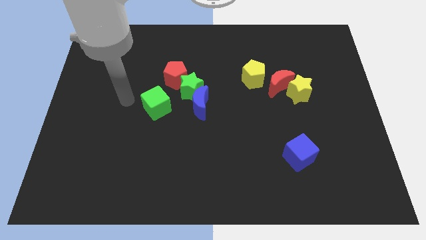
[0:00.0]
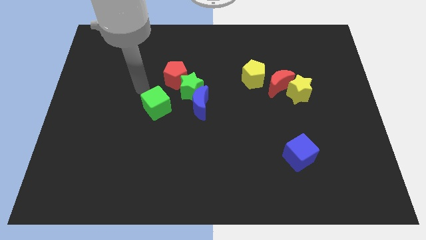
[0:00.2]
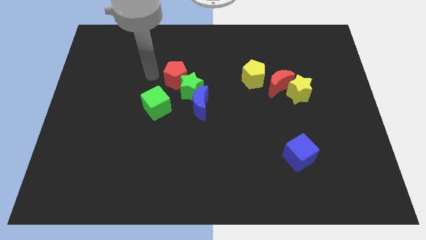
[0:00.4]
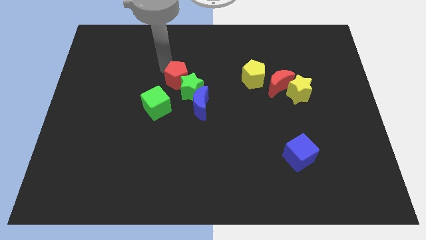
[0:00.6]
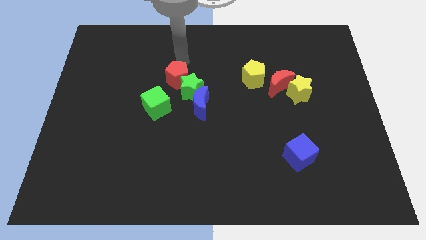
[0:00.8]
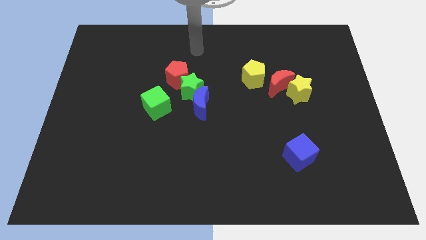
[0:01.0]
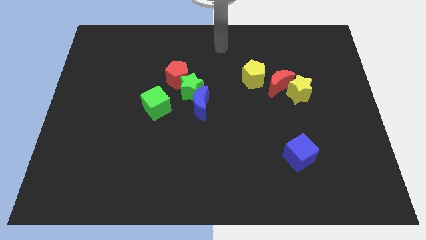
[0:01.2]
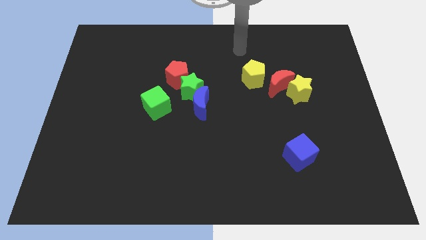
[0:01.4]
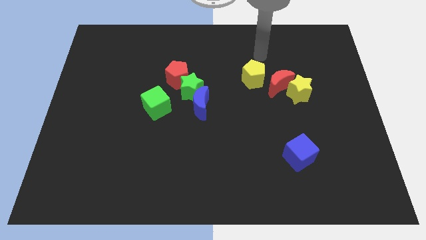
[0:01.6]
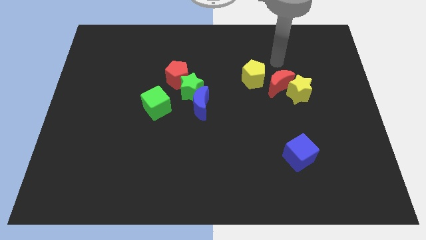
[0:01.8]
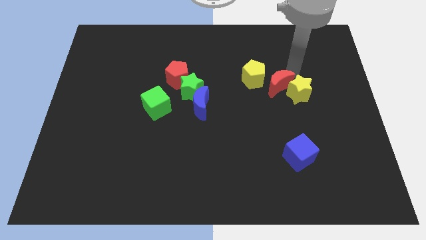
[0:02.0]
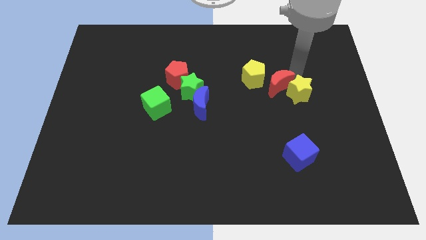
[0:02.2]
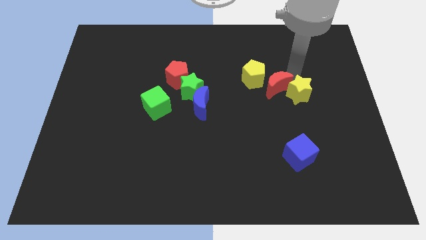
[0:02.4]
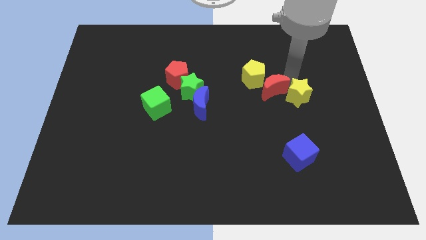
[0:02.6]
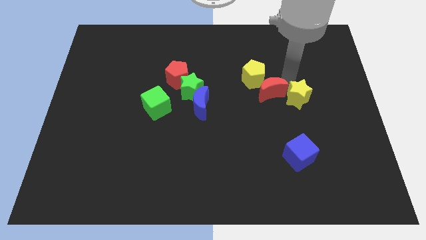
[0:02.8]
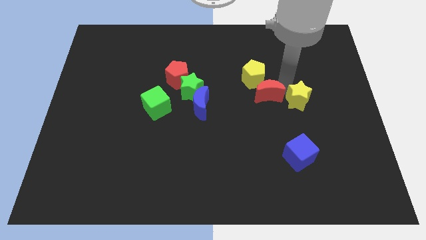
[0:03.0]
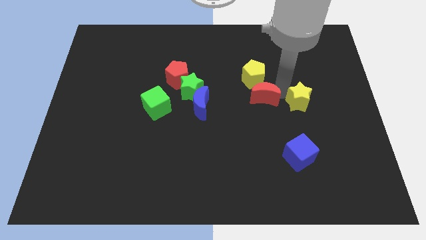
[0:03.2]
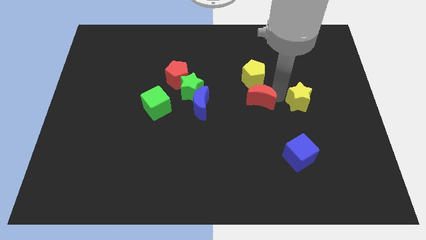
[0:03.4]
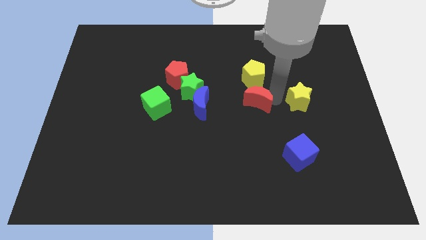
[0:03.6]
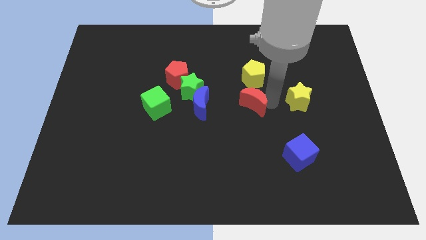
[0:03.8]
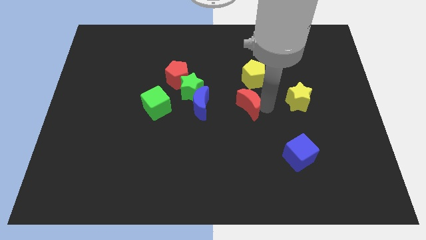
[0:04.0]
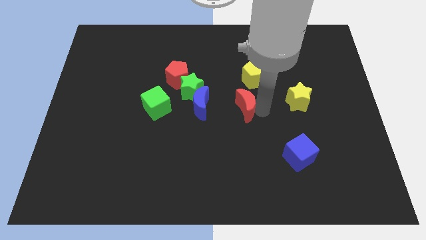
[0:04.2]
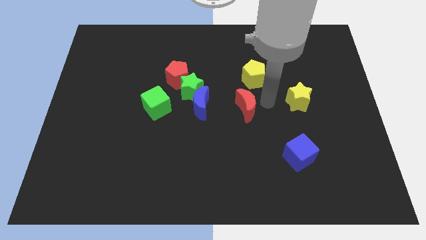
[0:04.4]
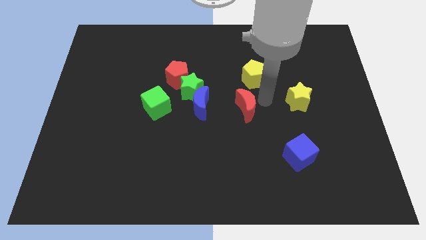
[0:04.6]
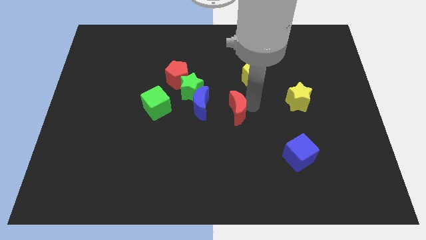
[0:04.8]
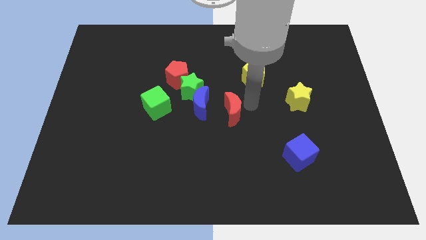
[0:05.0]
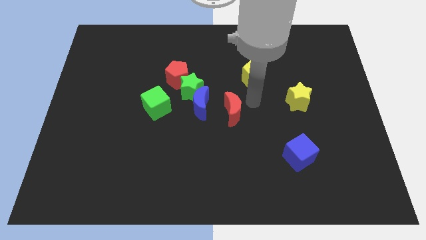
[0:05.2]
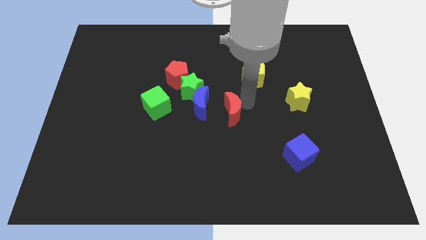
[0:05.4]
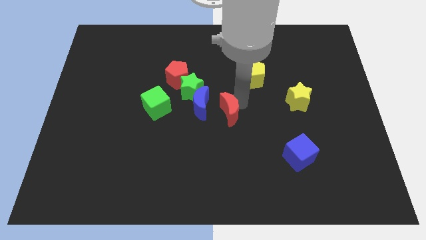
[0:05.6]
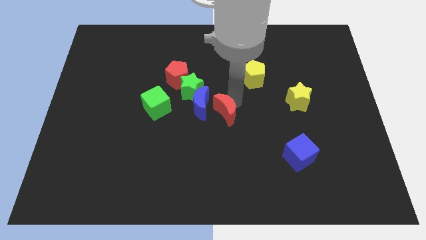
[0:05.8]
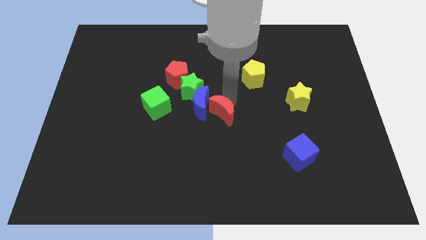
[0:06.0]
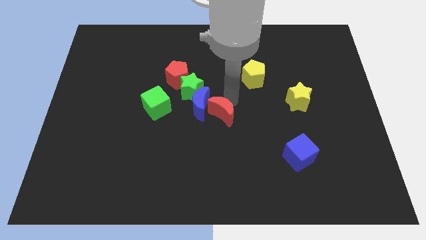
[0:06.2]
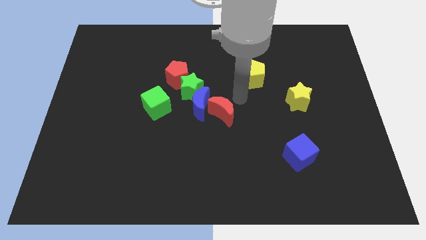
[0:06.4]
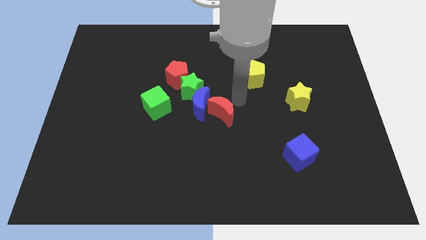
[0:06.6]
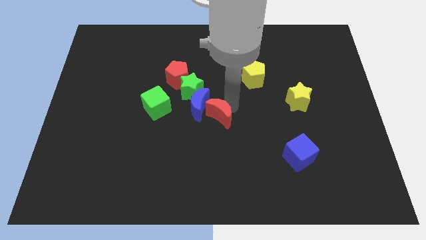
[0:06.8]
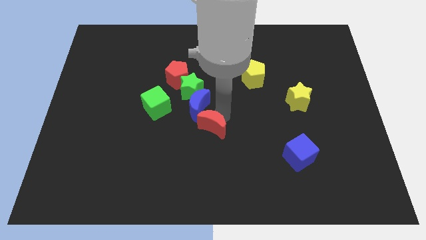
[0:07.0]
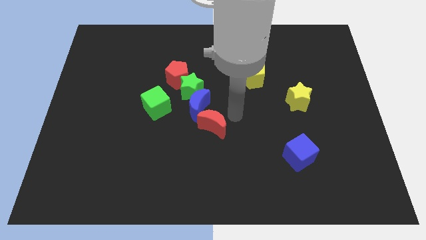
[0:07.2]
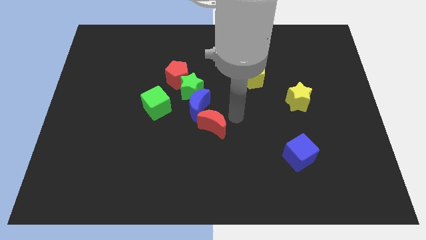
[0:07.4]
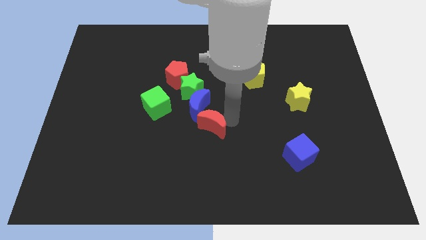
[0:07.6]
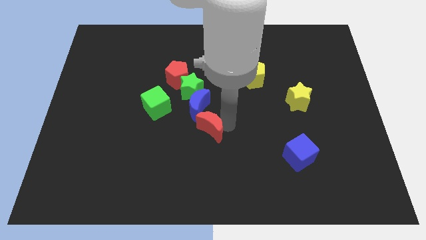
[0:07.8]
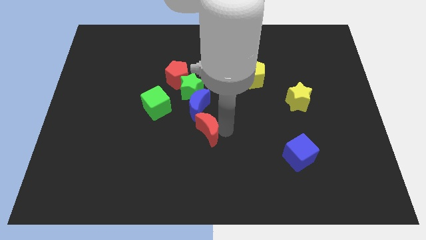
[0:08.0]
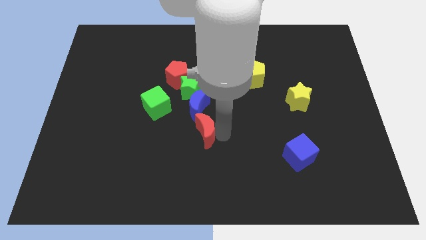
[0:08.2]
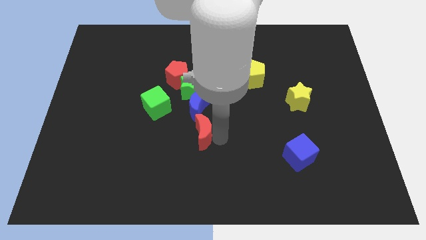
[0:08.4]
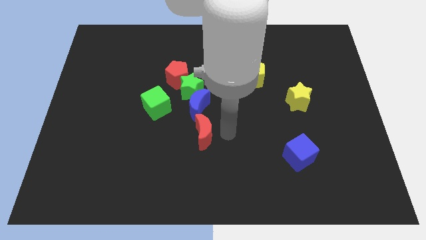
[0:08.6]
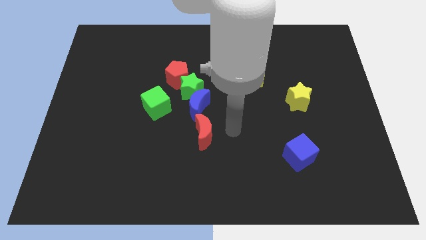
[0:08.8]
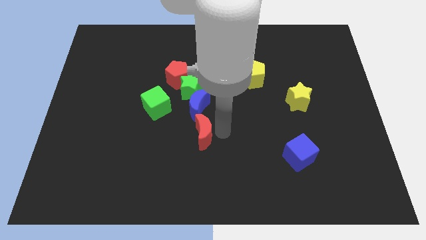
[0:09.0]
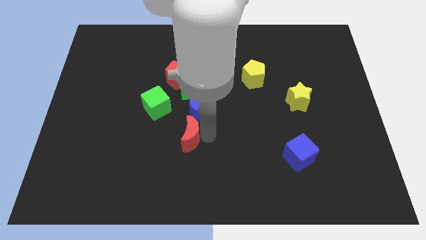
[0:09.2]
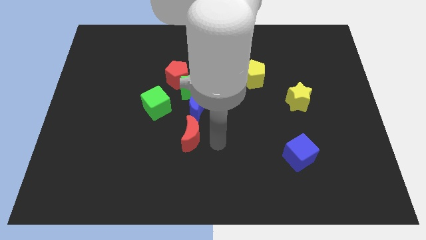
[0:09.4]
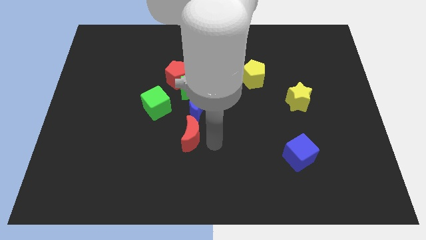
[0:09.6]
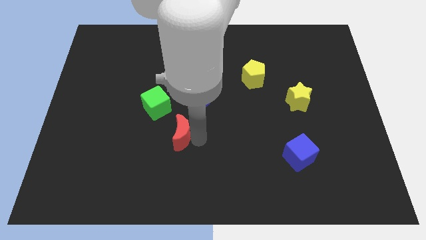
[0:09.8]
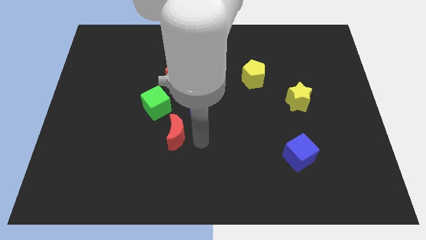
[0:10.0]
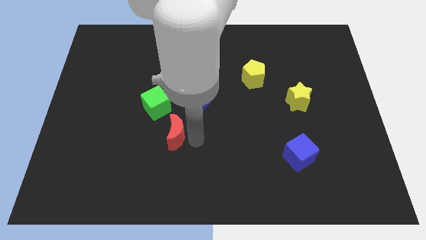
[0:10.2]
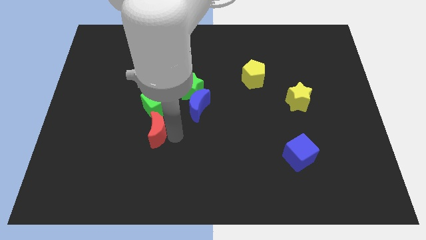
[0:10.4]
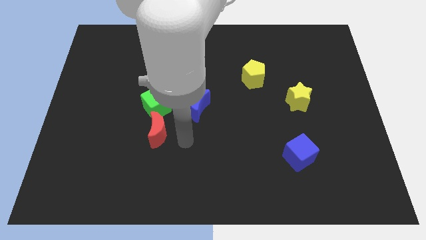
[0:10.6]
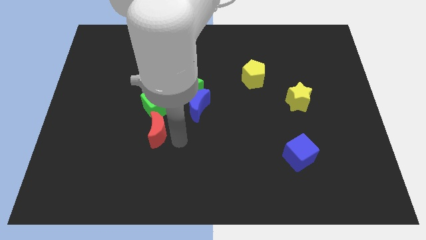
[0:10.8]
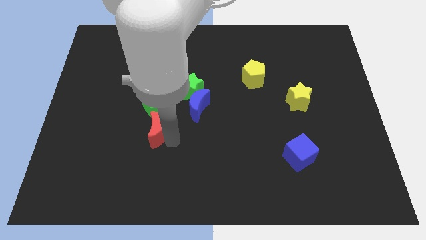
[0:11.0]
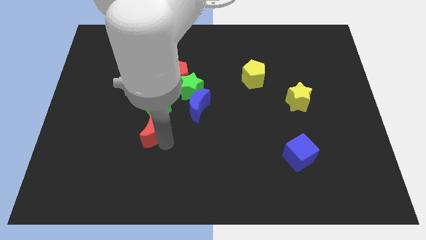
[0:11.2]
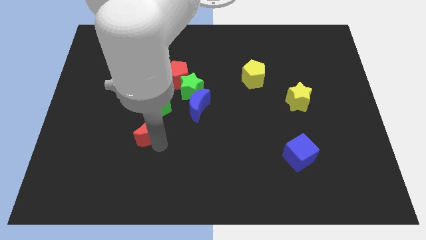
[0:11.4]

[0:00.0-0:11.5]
put the red moon to the bottom left side of the green cube

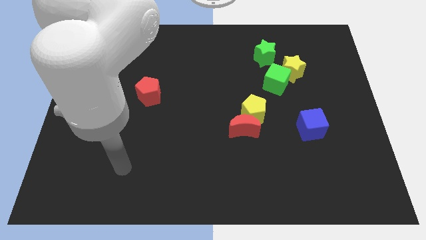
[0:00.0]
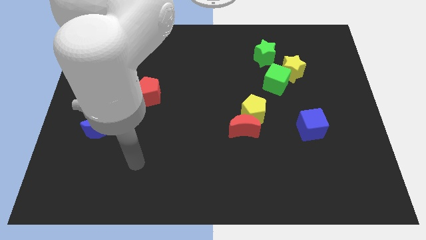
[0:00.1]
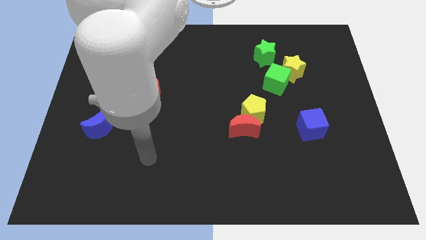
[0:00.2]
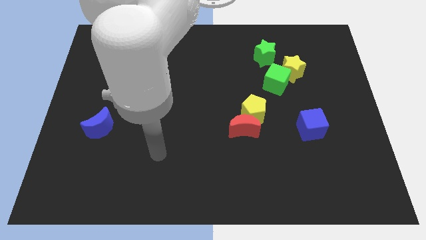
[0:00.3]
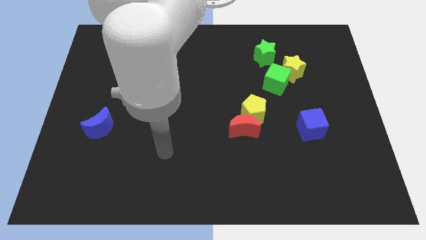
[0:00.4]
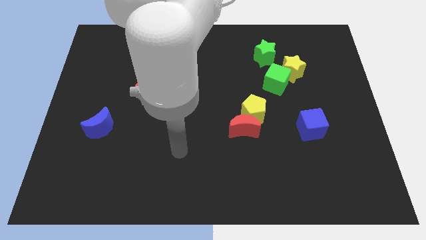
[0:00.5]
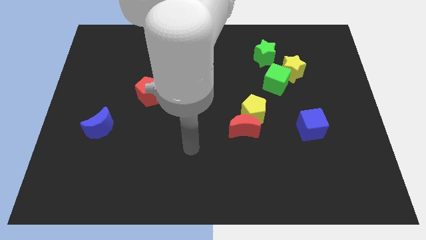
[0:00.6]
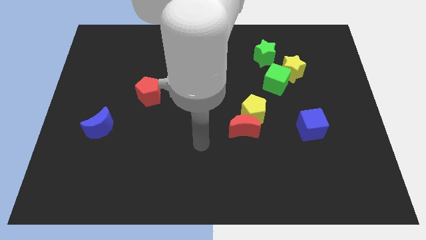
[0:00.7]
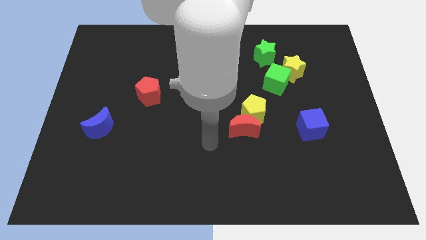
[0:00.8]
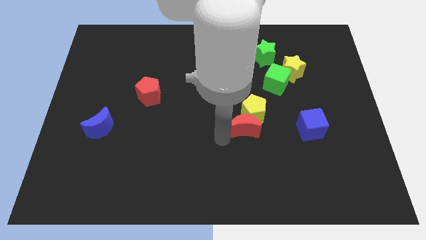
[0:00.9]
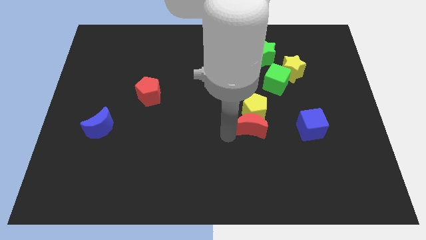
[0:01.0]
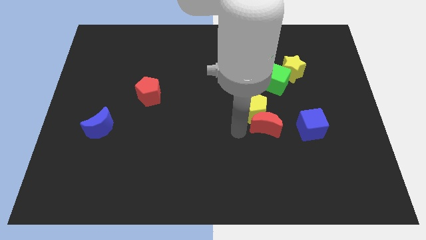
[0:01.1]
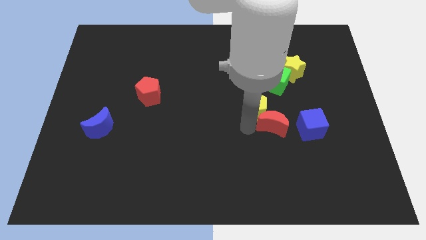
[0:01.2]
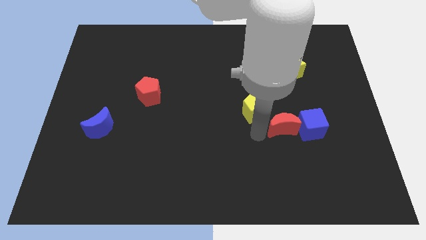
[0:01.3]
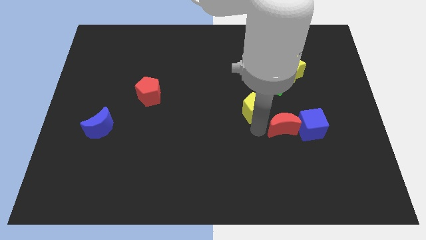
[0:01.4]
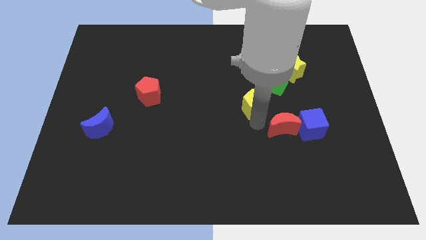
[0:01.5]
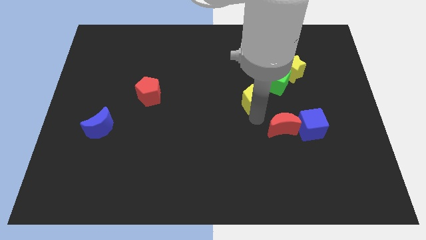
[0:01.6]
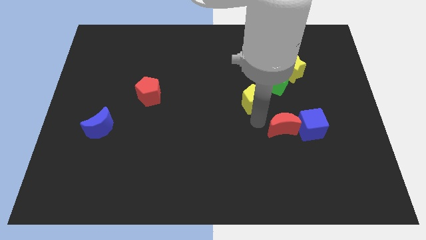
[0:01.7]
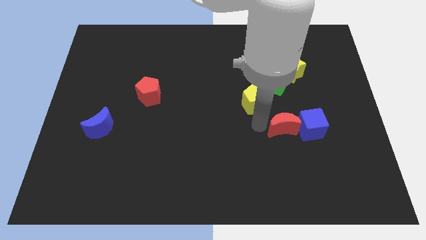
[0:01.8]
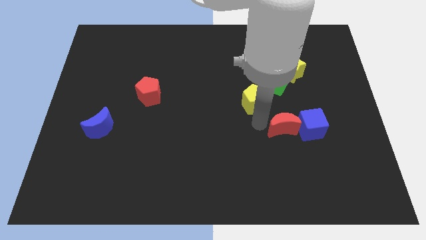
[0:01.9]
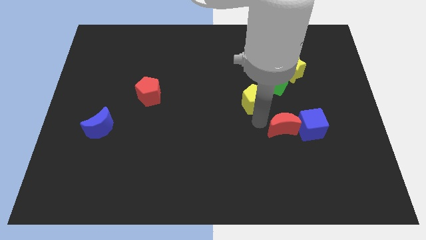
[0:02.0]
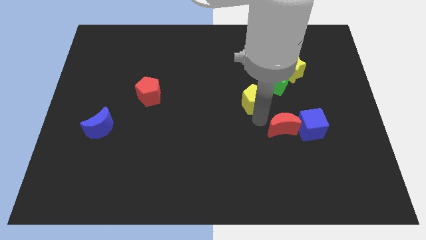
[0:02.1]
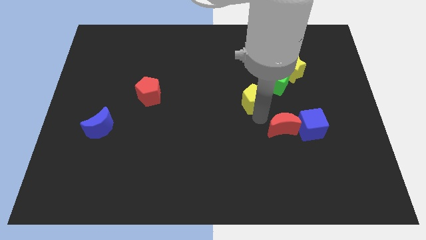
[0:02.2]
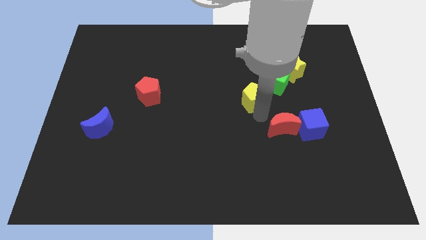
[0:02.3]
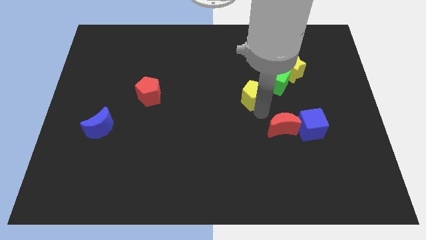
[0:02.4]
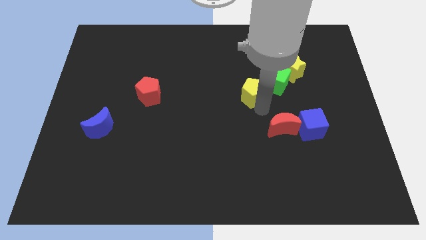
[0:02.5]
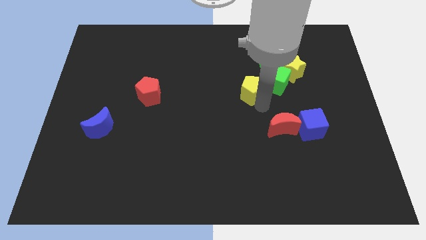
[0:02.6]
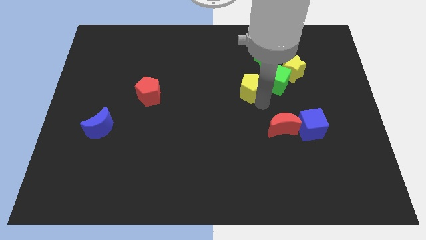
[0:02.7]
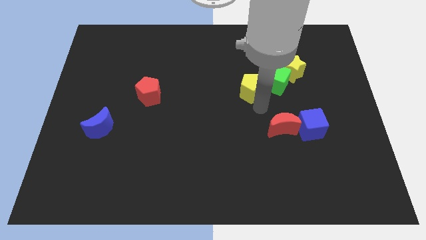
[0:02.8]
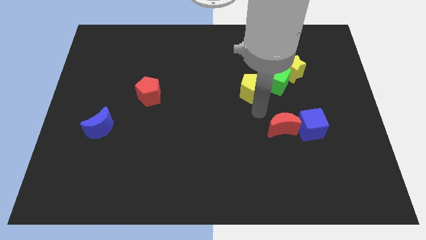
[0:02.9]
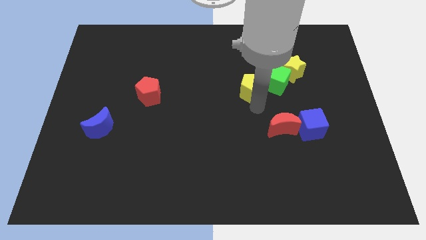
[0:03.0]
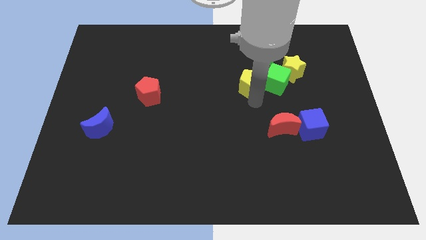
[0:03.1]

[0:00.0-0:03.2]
slide the yellow pentagon diagonally down and to the left of the green star
